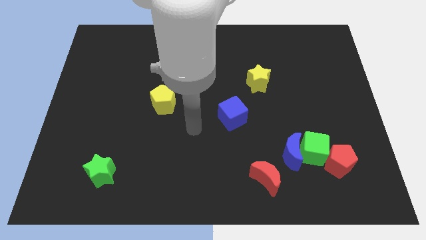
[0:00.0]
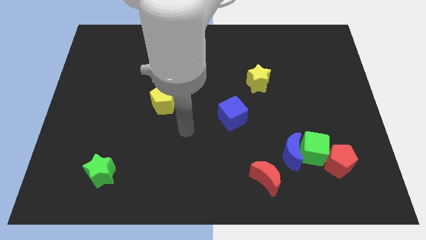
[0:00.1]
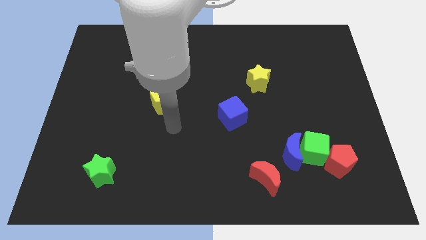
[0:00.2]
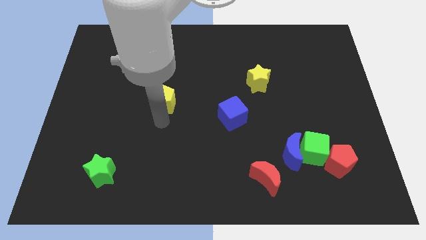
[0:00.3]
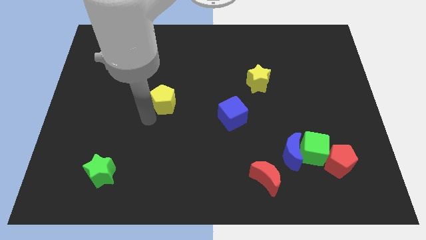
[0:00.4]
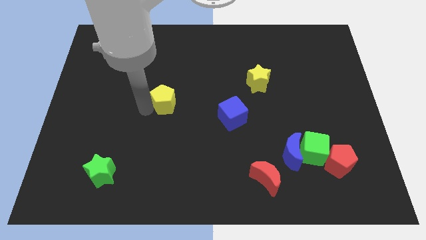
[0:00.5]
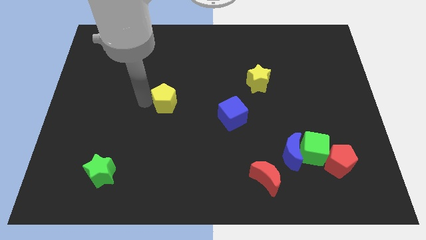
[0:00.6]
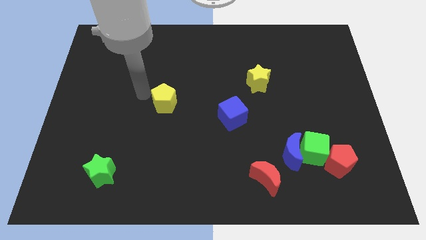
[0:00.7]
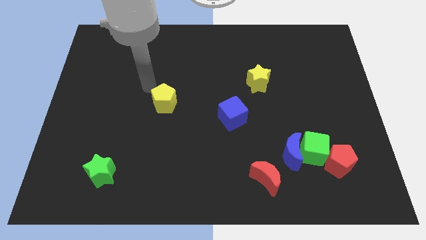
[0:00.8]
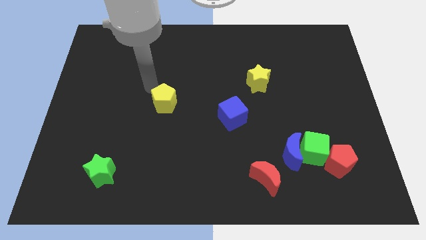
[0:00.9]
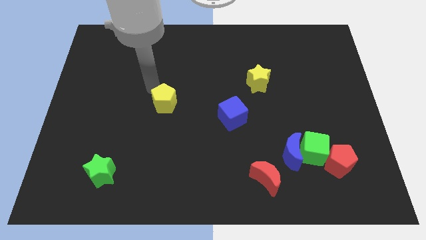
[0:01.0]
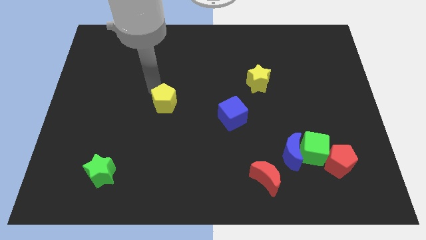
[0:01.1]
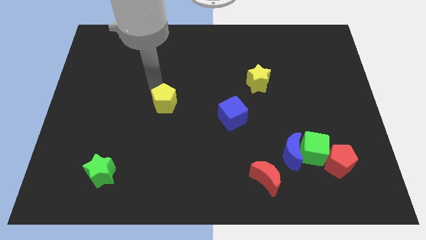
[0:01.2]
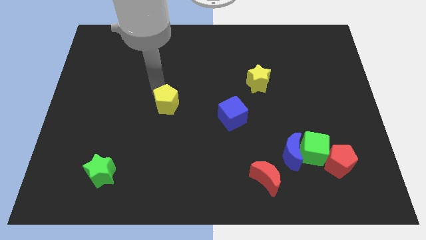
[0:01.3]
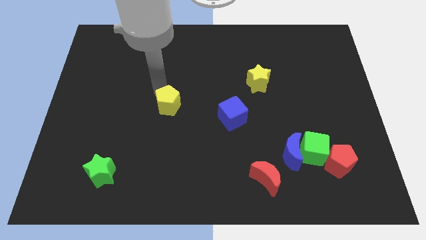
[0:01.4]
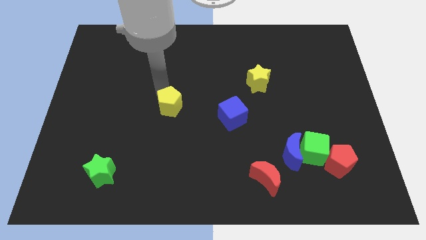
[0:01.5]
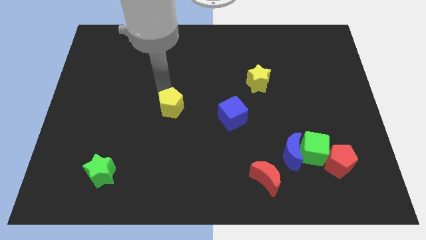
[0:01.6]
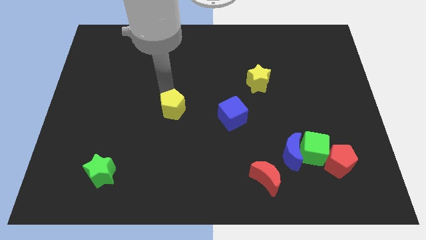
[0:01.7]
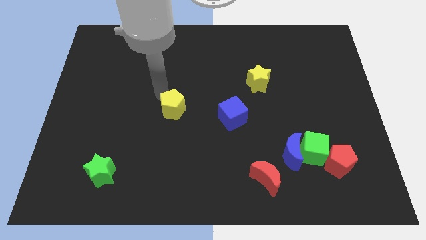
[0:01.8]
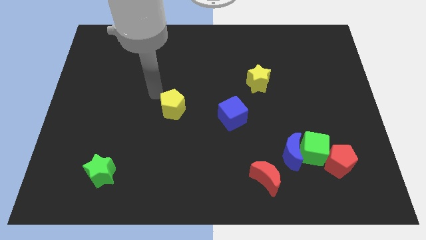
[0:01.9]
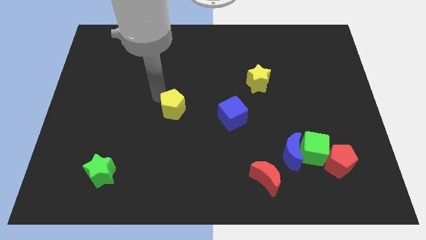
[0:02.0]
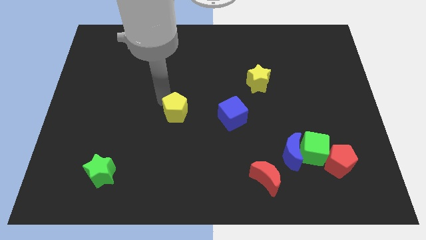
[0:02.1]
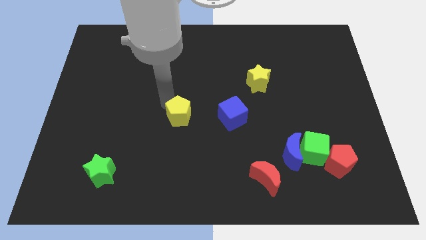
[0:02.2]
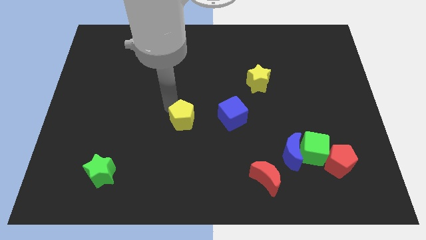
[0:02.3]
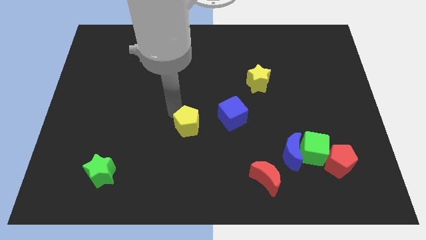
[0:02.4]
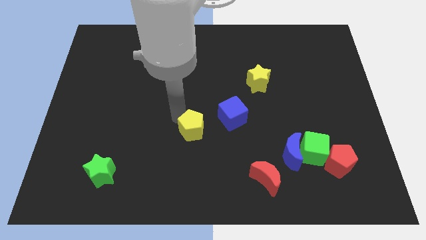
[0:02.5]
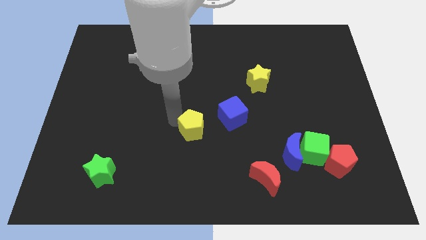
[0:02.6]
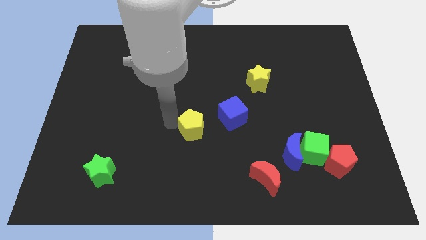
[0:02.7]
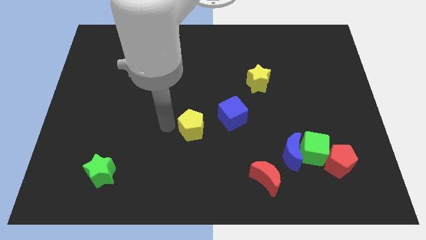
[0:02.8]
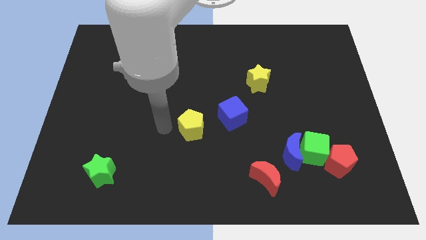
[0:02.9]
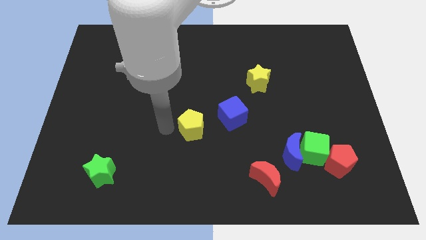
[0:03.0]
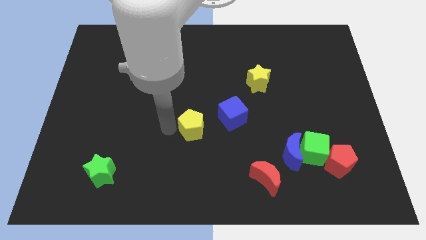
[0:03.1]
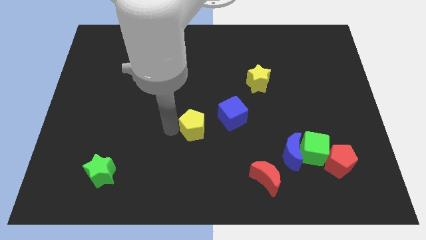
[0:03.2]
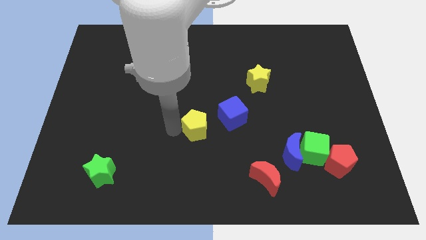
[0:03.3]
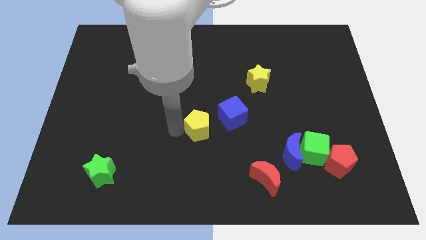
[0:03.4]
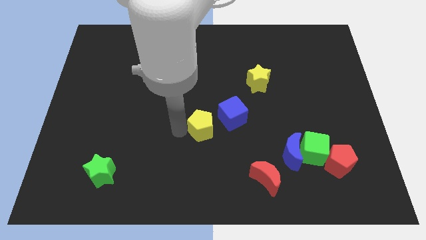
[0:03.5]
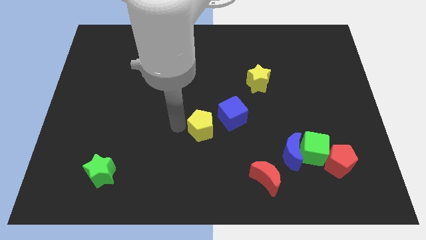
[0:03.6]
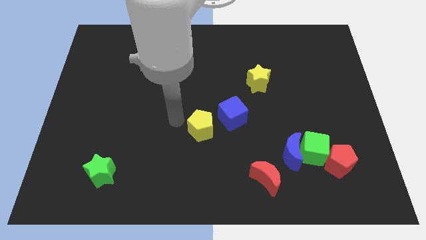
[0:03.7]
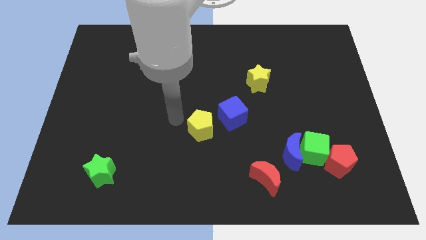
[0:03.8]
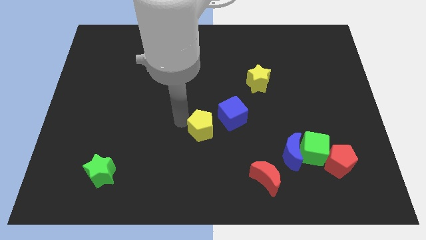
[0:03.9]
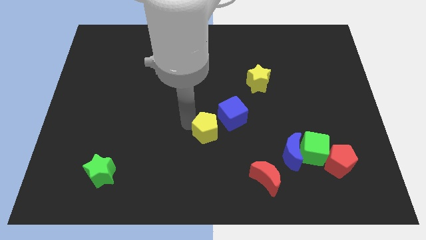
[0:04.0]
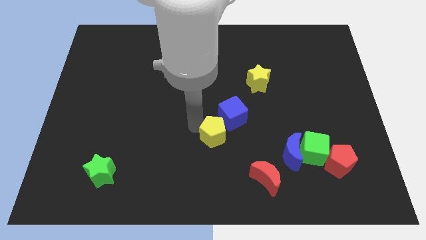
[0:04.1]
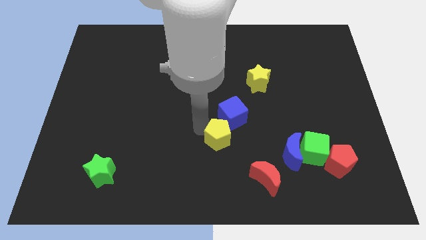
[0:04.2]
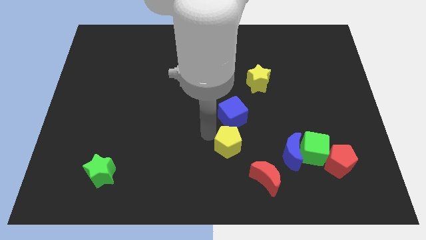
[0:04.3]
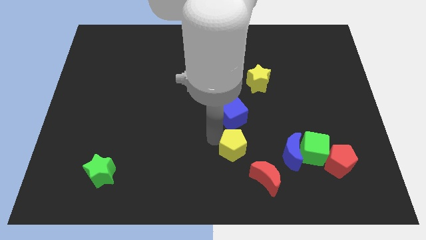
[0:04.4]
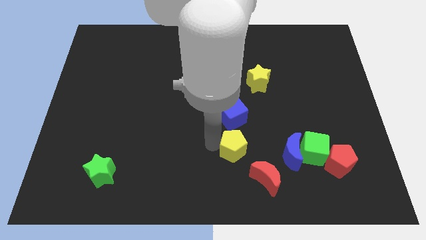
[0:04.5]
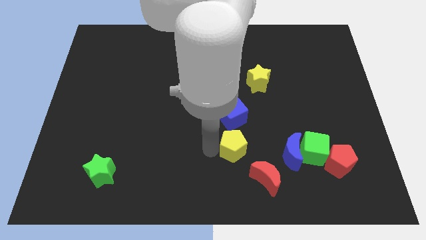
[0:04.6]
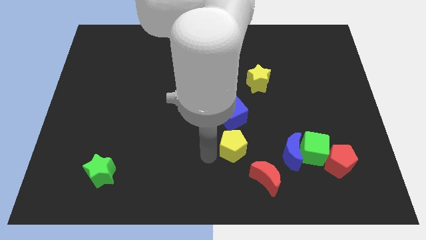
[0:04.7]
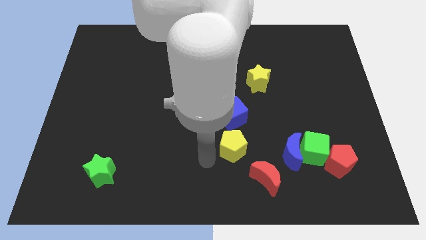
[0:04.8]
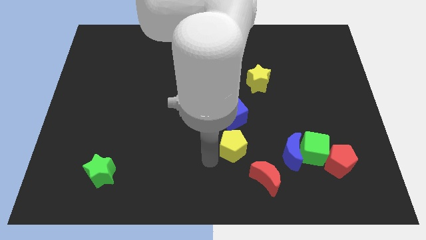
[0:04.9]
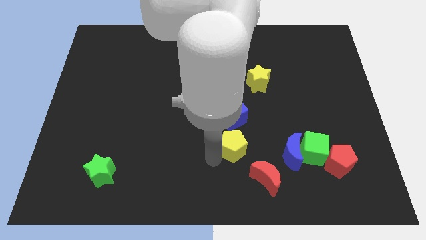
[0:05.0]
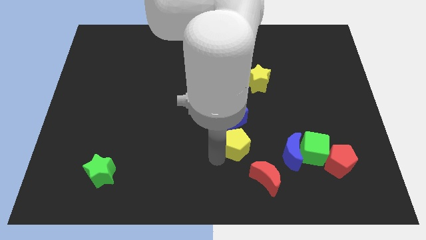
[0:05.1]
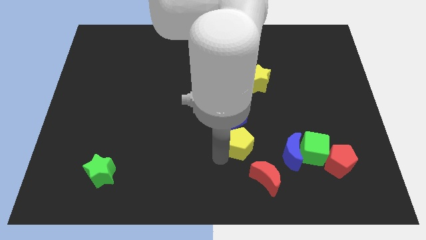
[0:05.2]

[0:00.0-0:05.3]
slide the yellow pentagon diagonally down and to the right of the blue cube

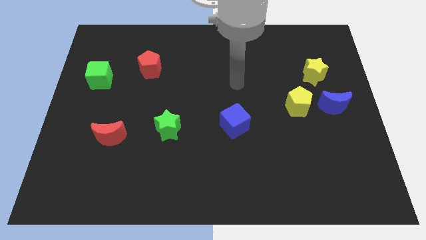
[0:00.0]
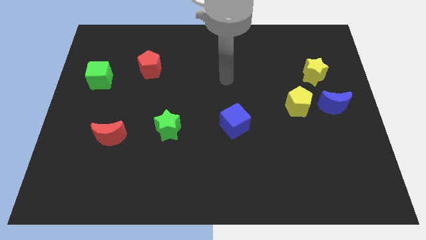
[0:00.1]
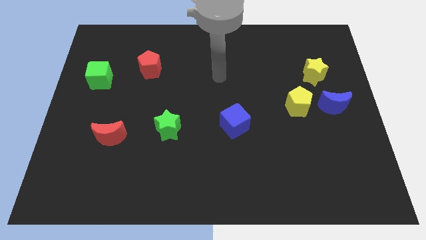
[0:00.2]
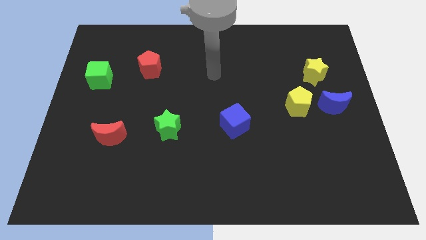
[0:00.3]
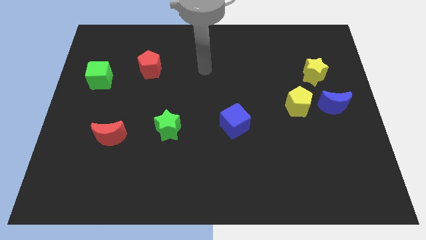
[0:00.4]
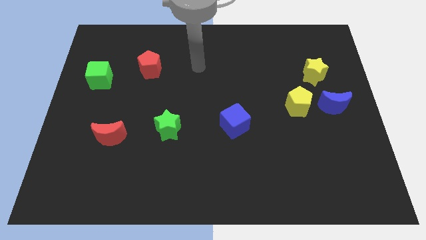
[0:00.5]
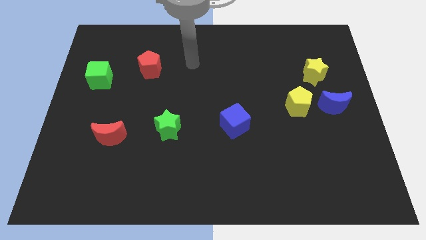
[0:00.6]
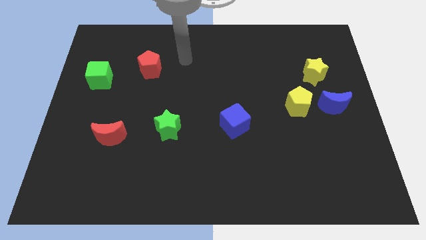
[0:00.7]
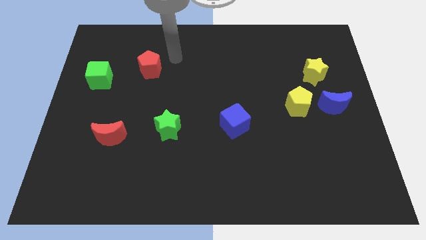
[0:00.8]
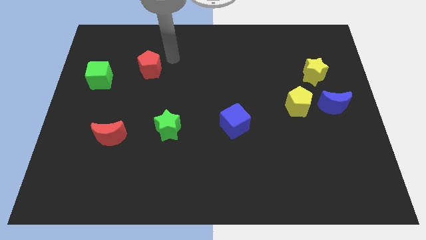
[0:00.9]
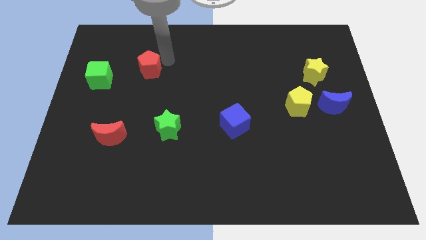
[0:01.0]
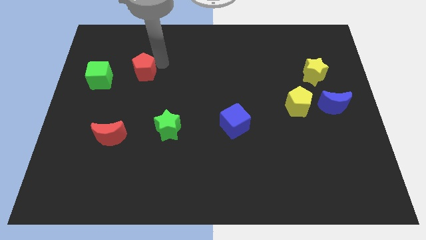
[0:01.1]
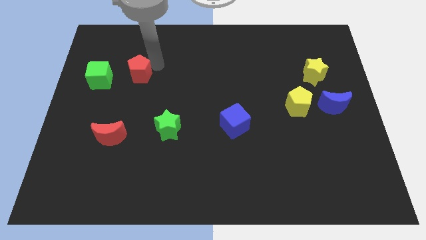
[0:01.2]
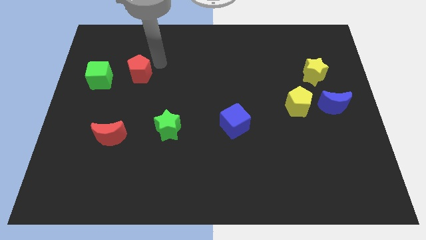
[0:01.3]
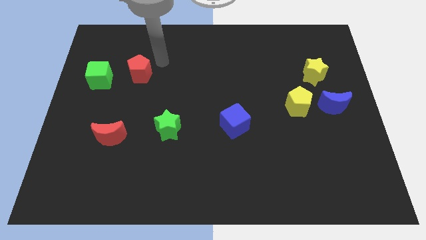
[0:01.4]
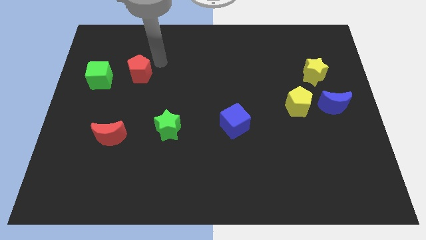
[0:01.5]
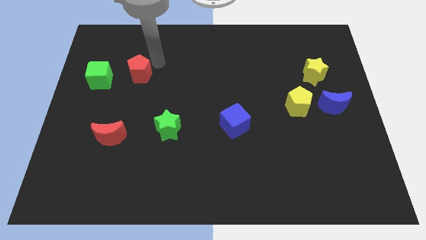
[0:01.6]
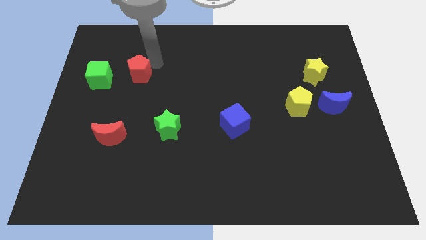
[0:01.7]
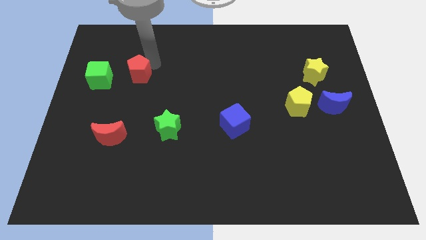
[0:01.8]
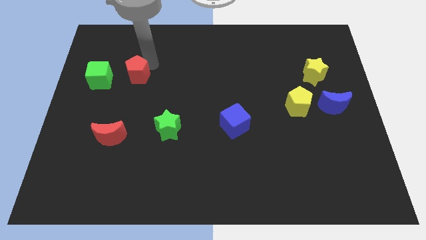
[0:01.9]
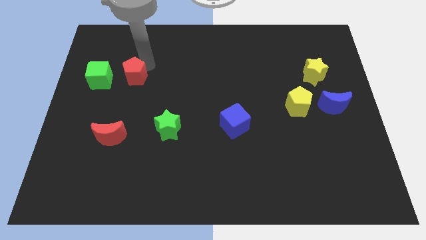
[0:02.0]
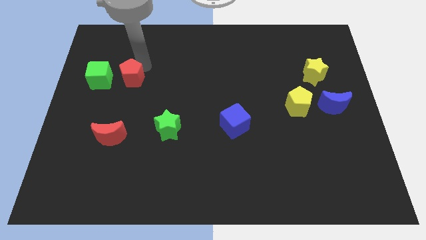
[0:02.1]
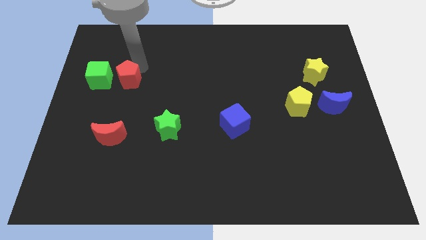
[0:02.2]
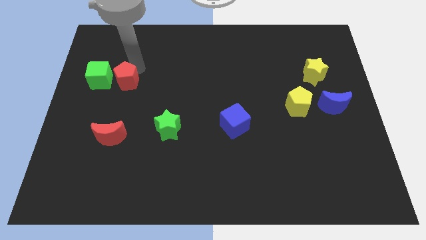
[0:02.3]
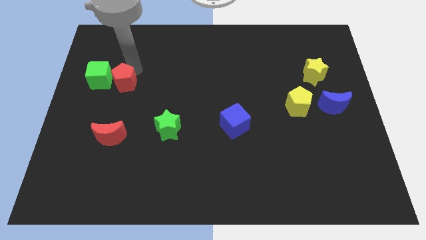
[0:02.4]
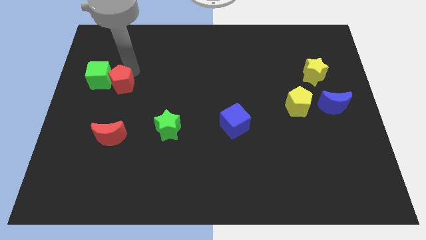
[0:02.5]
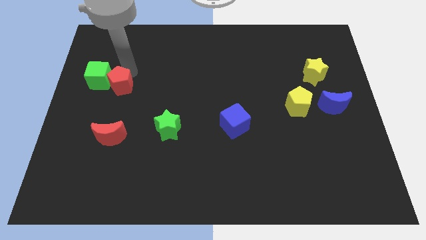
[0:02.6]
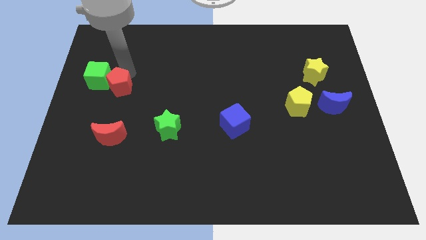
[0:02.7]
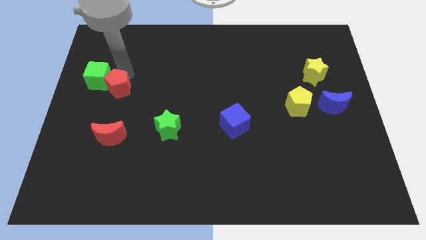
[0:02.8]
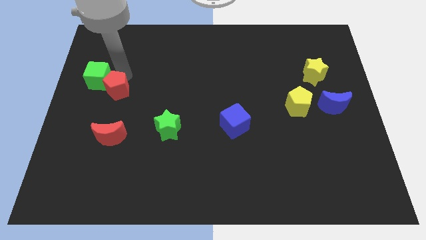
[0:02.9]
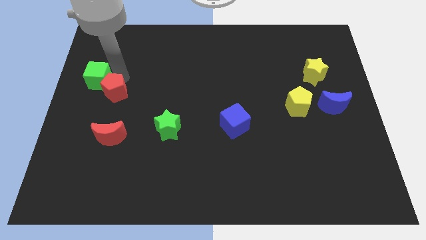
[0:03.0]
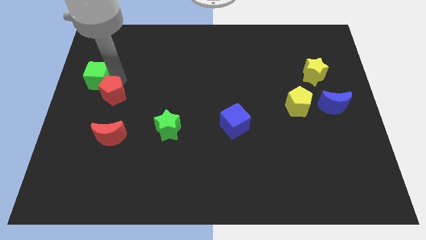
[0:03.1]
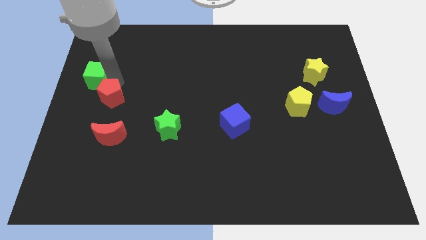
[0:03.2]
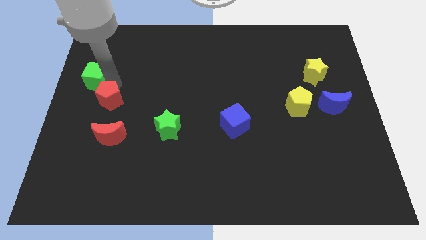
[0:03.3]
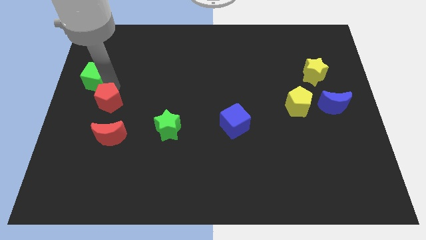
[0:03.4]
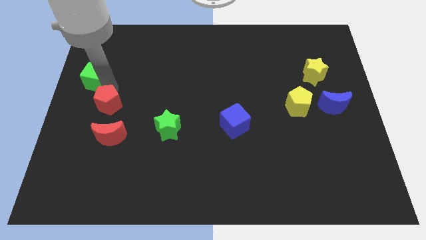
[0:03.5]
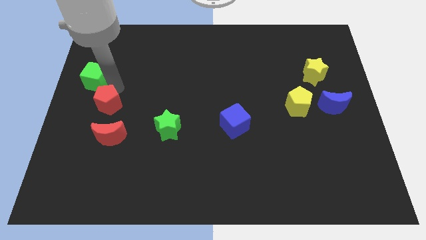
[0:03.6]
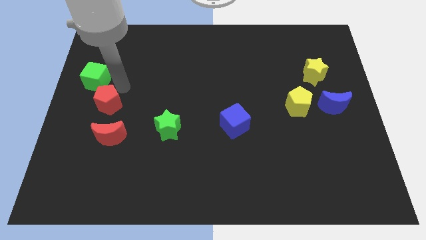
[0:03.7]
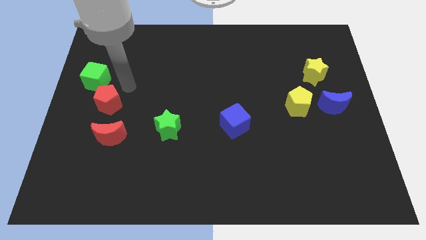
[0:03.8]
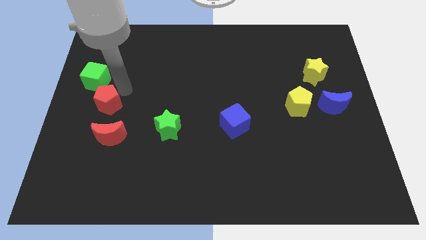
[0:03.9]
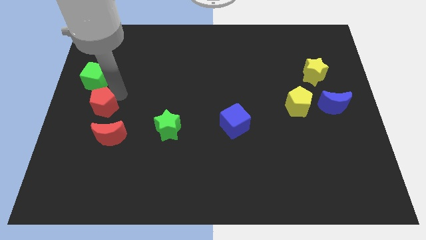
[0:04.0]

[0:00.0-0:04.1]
push the red pentagon to the top left side of the red moon
